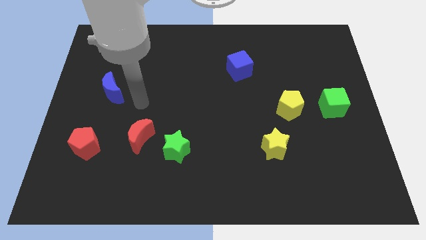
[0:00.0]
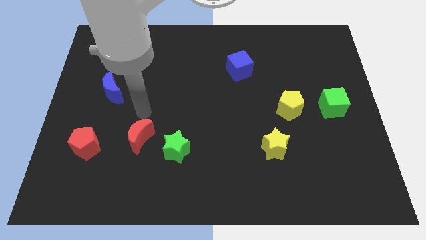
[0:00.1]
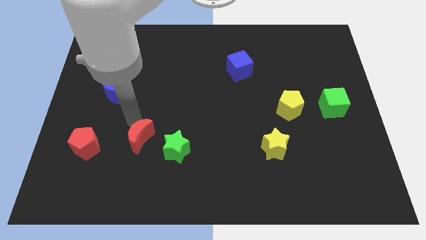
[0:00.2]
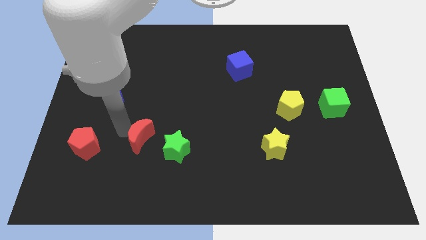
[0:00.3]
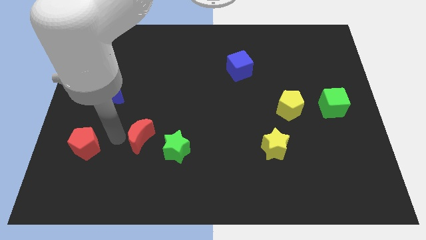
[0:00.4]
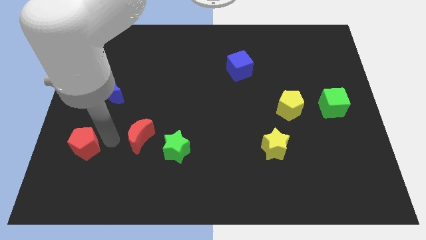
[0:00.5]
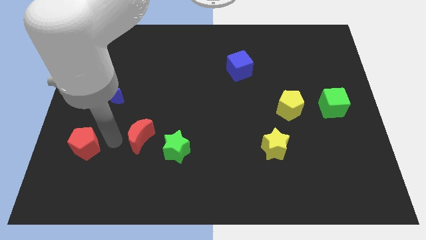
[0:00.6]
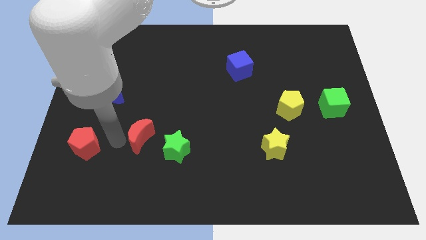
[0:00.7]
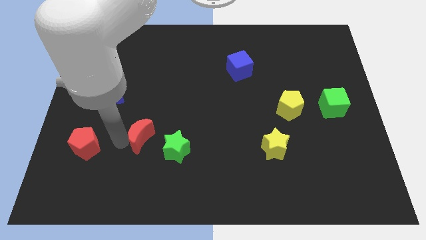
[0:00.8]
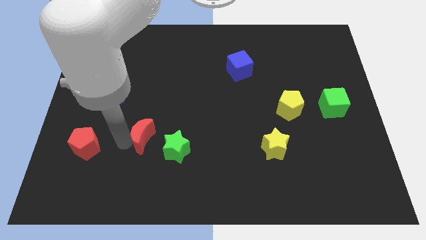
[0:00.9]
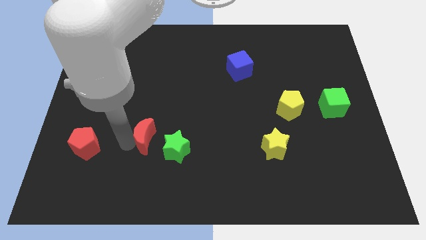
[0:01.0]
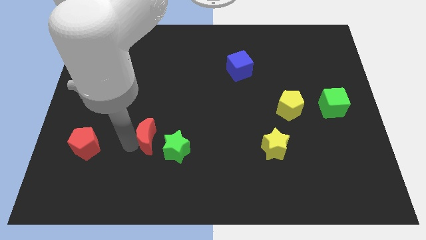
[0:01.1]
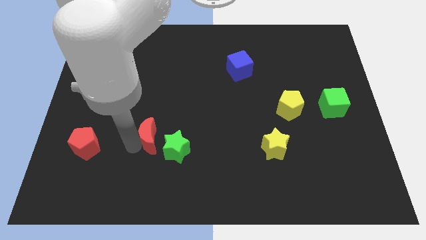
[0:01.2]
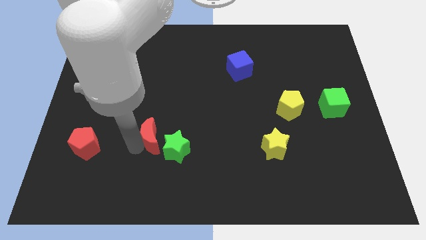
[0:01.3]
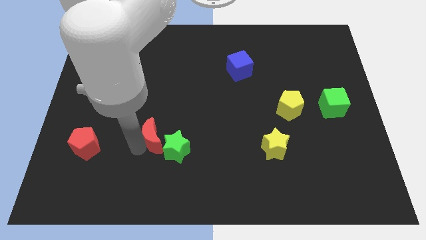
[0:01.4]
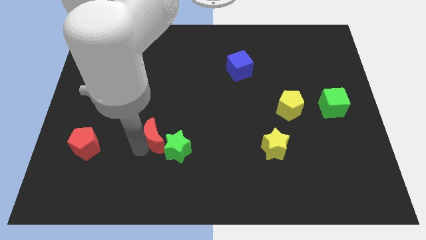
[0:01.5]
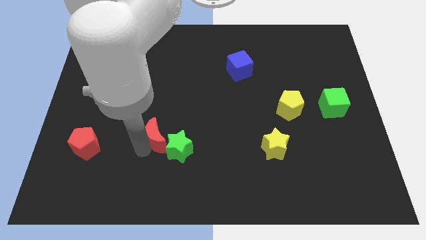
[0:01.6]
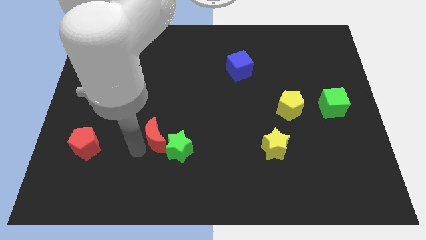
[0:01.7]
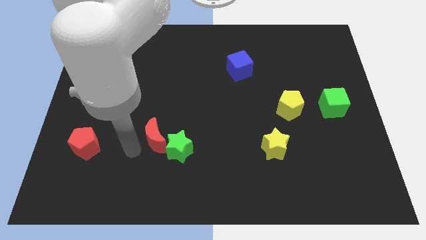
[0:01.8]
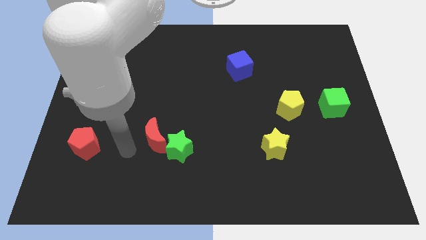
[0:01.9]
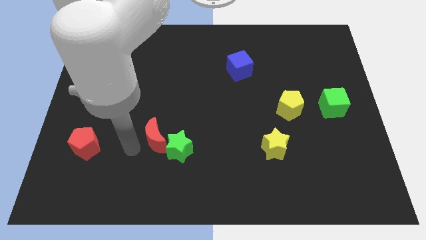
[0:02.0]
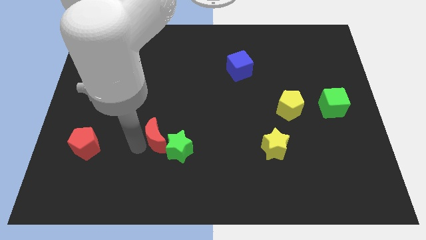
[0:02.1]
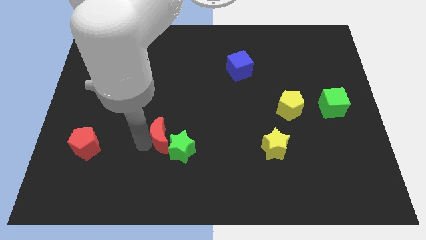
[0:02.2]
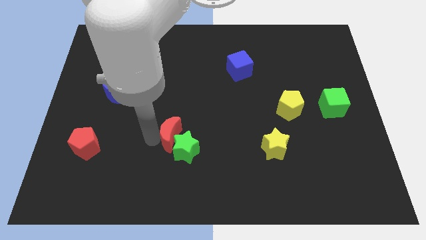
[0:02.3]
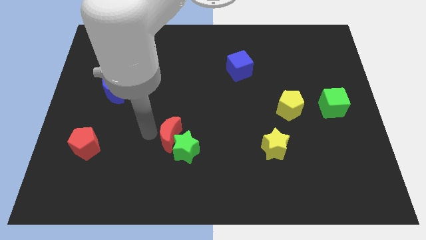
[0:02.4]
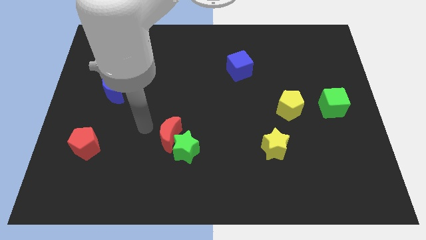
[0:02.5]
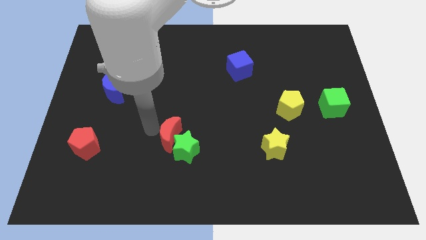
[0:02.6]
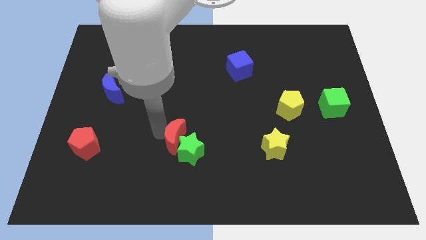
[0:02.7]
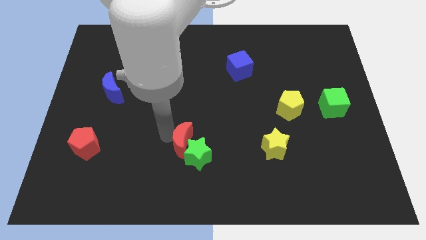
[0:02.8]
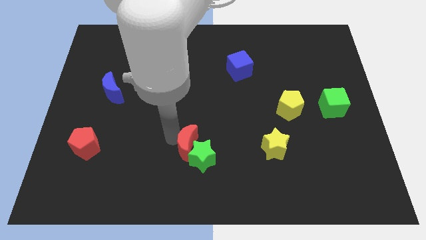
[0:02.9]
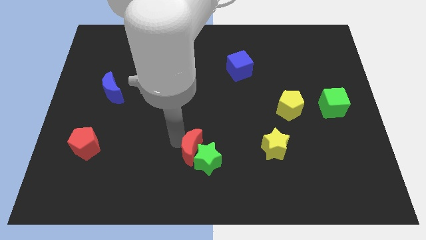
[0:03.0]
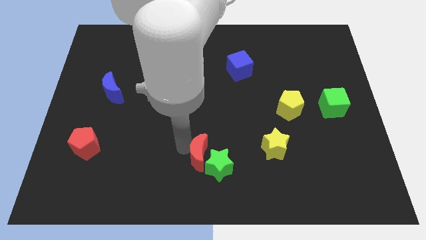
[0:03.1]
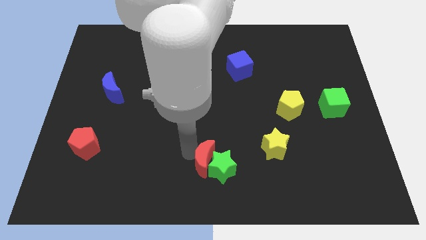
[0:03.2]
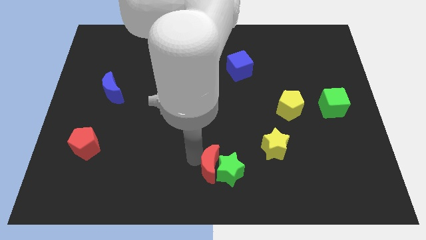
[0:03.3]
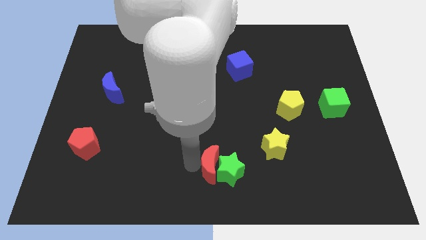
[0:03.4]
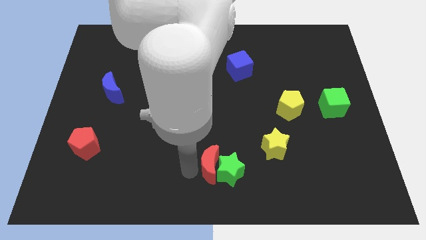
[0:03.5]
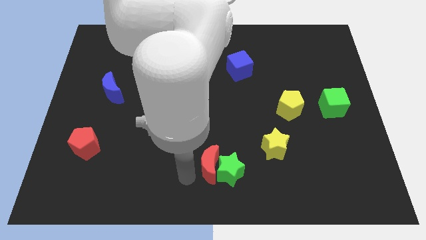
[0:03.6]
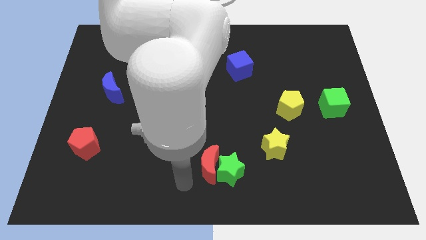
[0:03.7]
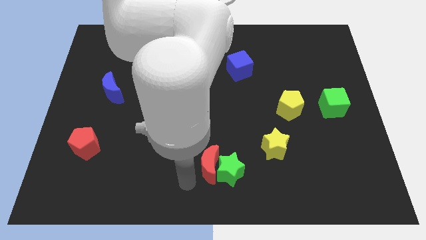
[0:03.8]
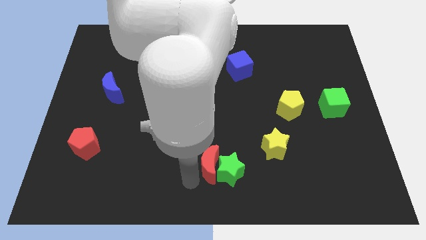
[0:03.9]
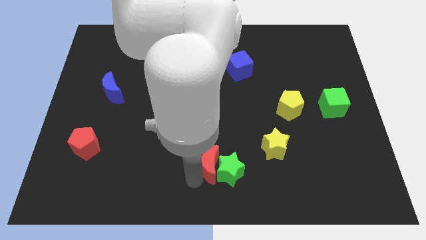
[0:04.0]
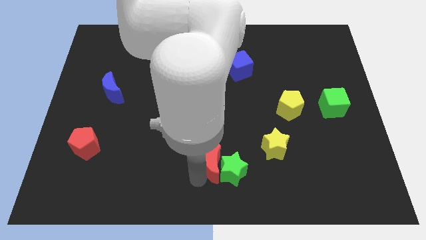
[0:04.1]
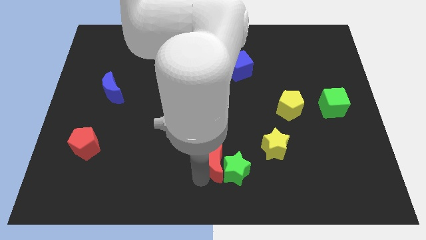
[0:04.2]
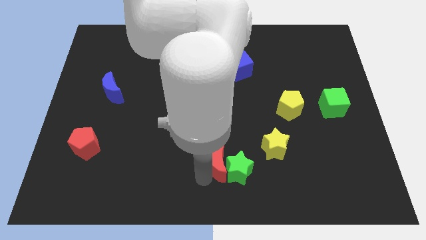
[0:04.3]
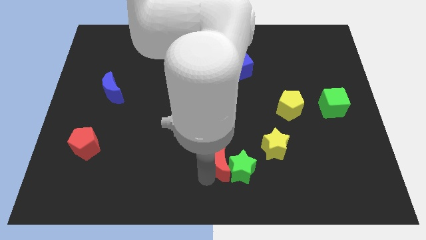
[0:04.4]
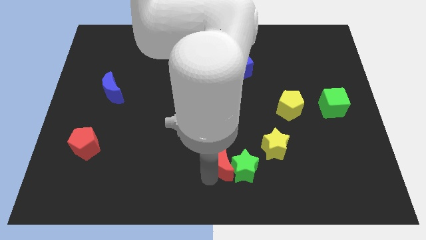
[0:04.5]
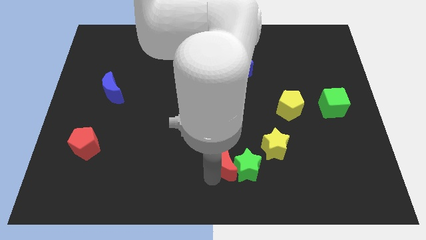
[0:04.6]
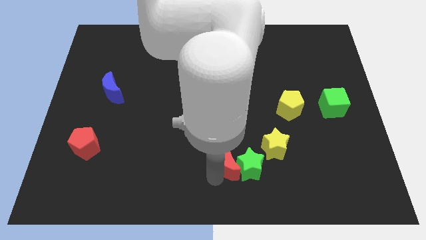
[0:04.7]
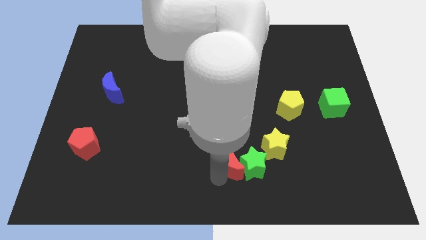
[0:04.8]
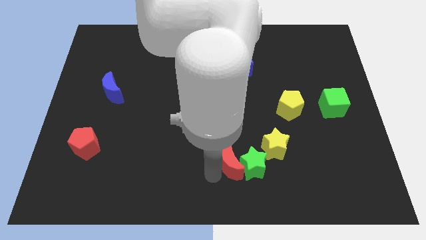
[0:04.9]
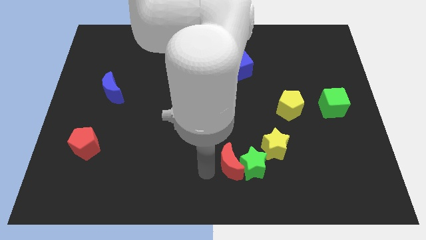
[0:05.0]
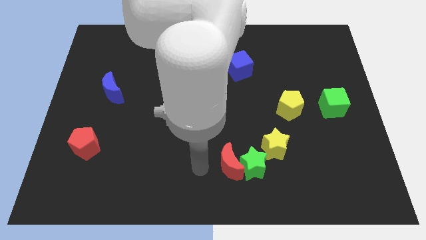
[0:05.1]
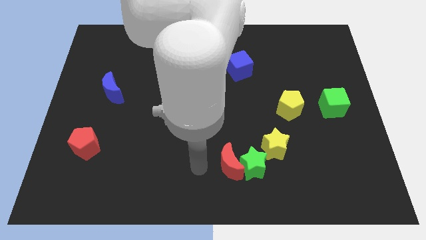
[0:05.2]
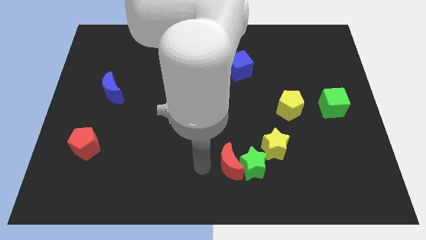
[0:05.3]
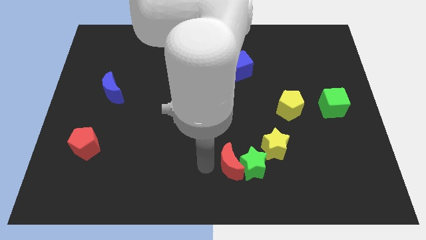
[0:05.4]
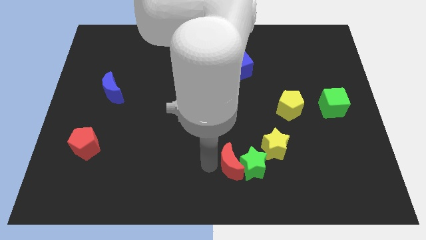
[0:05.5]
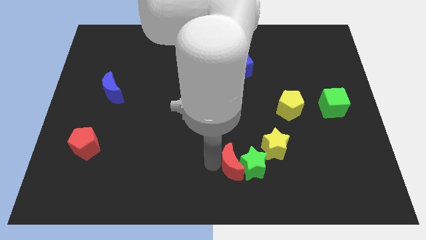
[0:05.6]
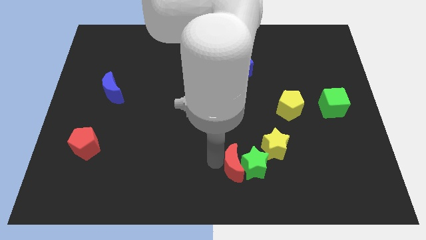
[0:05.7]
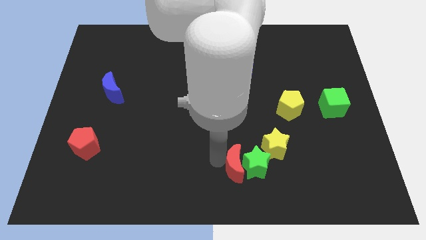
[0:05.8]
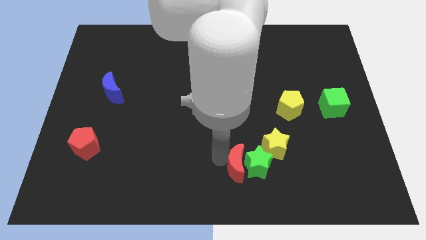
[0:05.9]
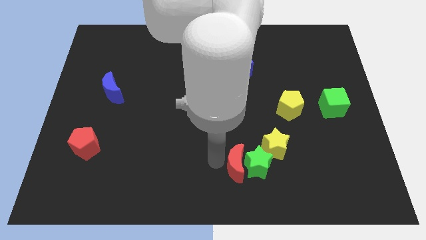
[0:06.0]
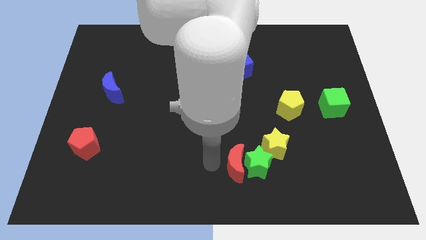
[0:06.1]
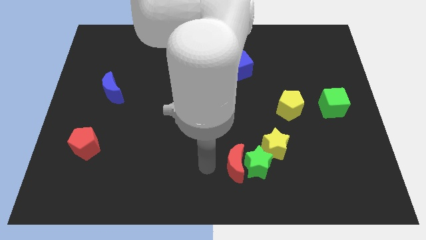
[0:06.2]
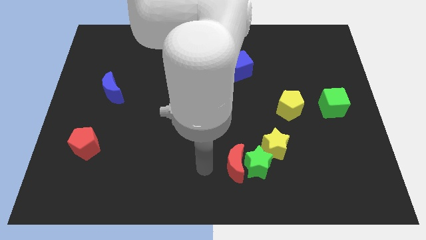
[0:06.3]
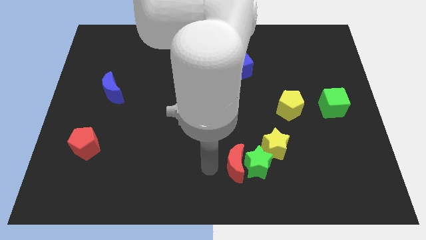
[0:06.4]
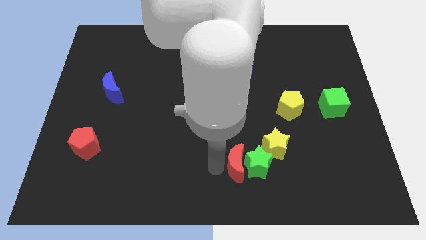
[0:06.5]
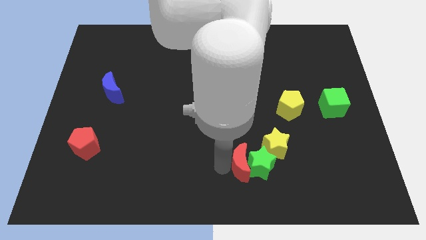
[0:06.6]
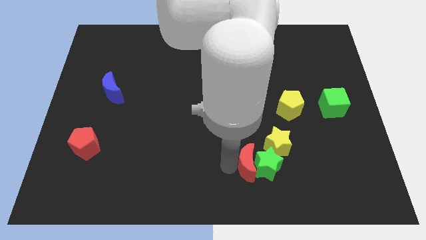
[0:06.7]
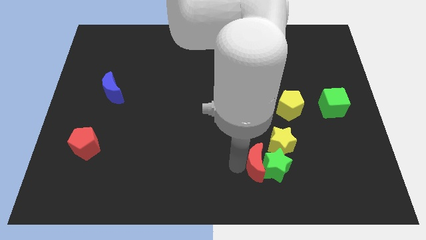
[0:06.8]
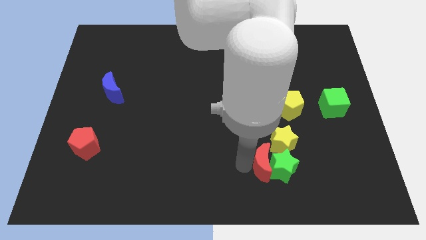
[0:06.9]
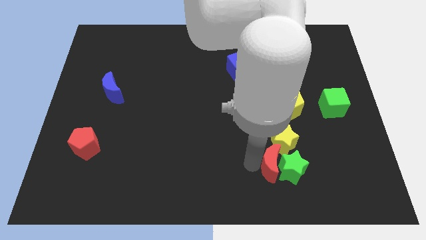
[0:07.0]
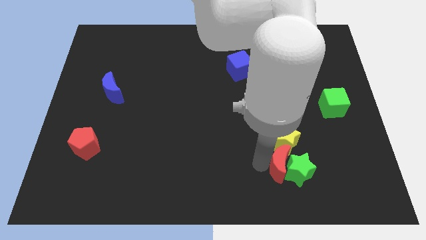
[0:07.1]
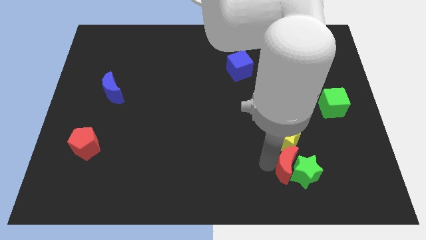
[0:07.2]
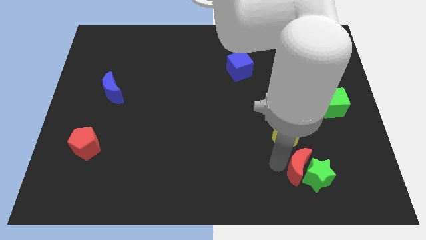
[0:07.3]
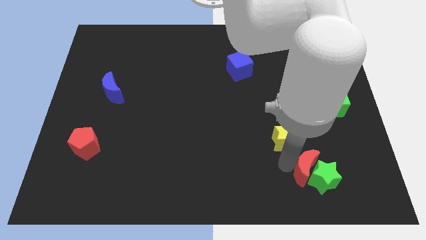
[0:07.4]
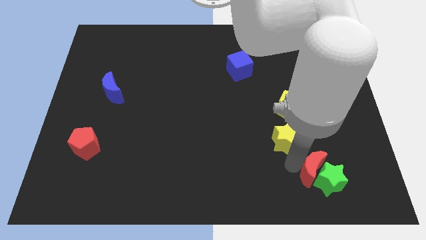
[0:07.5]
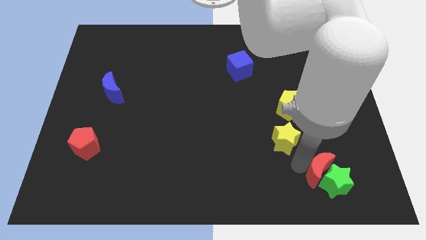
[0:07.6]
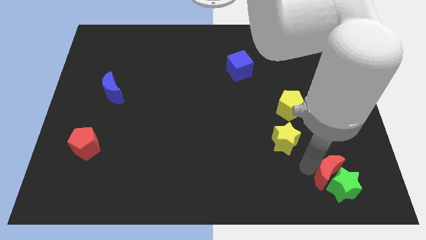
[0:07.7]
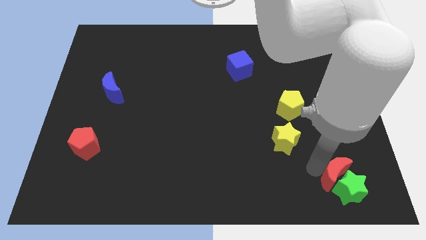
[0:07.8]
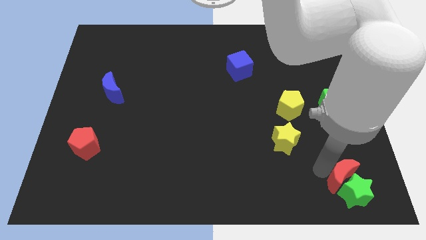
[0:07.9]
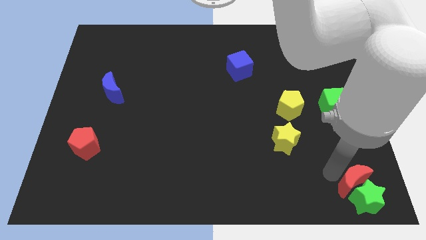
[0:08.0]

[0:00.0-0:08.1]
slide the red moon to the lower right corner
